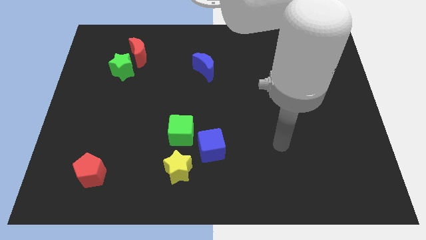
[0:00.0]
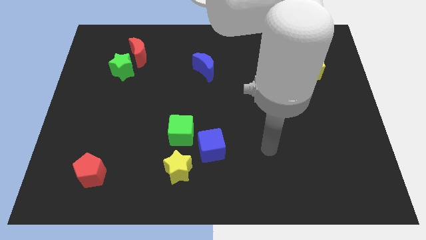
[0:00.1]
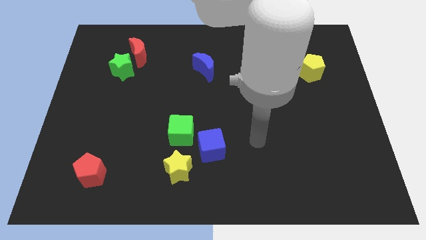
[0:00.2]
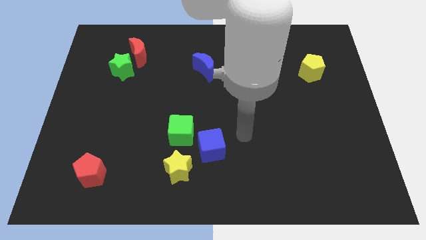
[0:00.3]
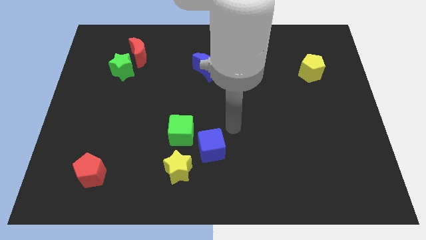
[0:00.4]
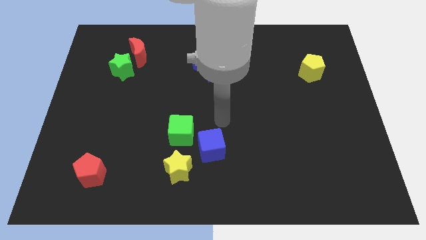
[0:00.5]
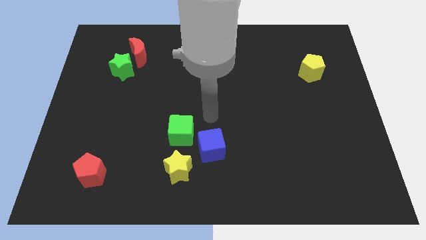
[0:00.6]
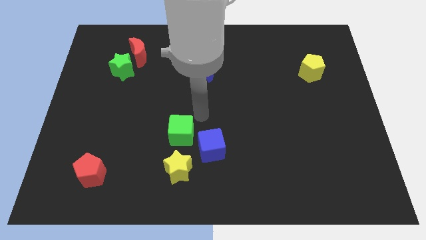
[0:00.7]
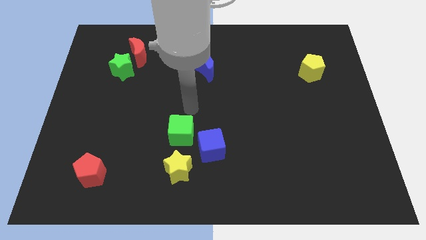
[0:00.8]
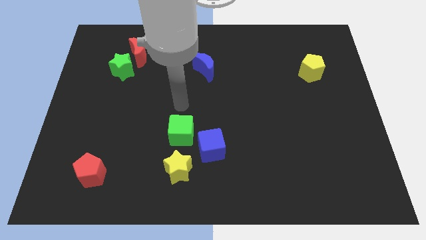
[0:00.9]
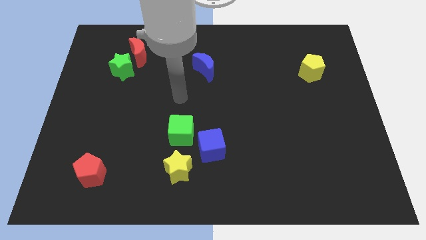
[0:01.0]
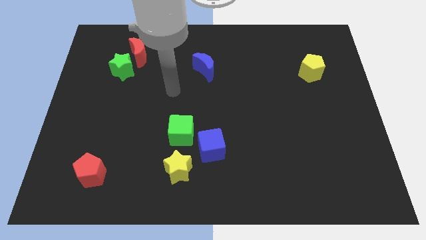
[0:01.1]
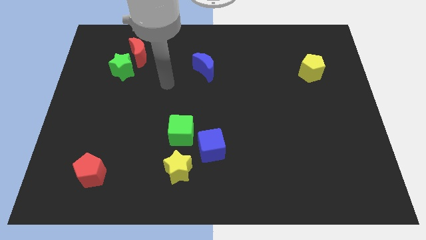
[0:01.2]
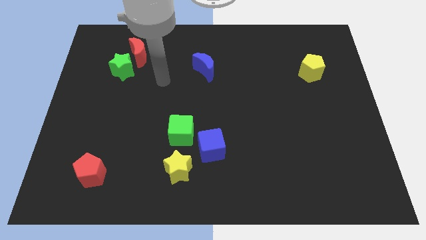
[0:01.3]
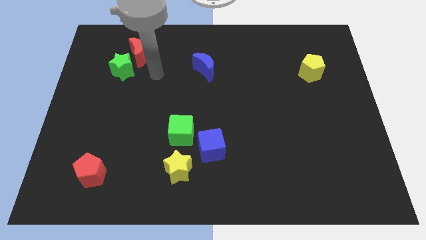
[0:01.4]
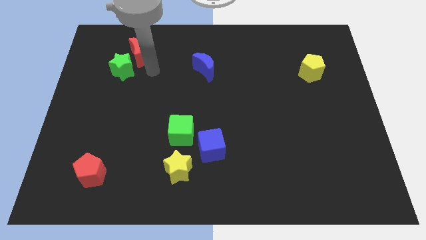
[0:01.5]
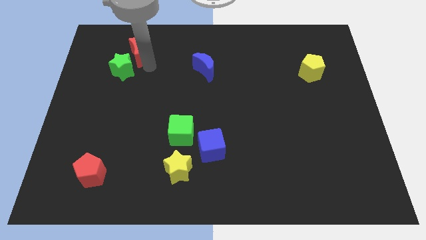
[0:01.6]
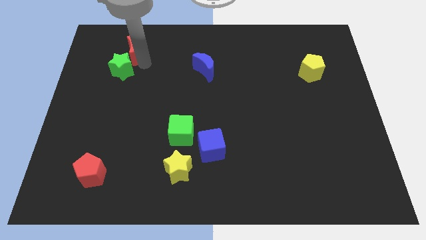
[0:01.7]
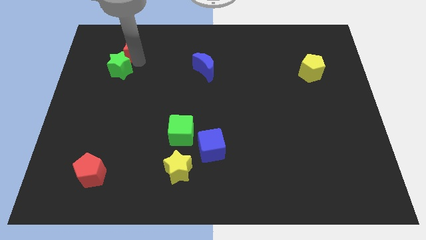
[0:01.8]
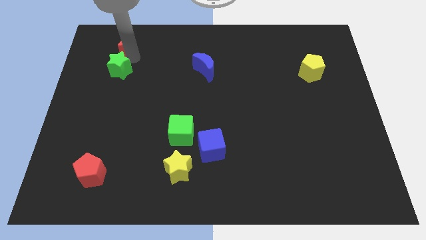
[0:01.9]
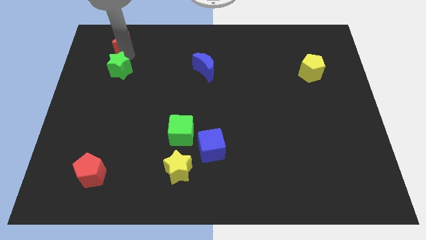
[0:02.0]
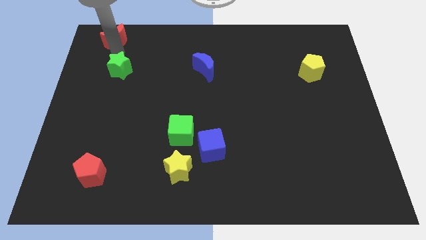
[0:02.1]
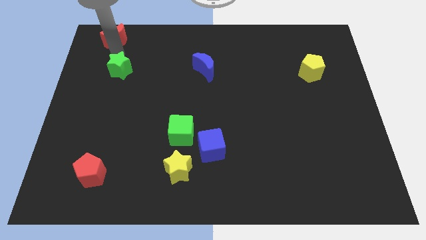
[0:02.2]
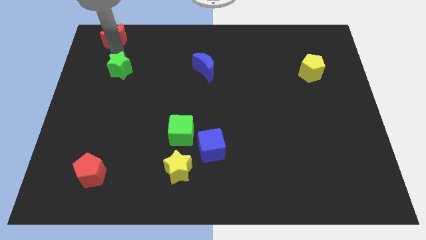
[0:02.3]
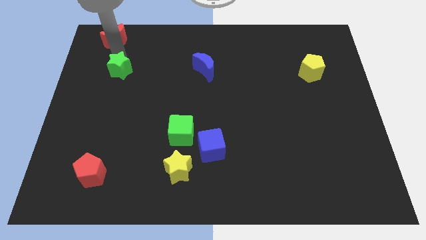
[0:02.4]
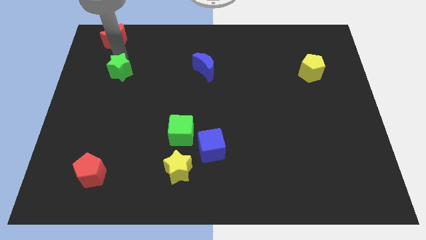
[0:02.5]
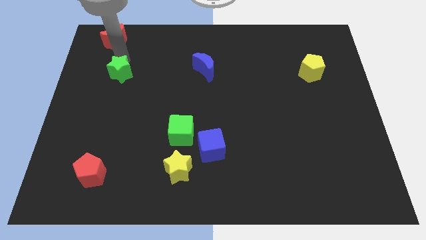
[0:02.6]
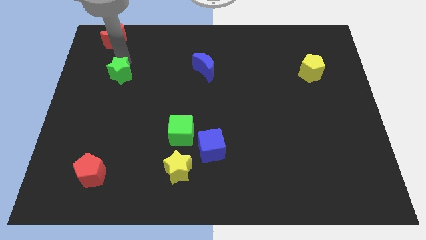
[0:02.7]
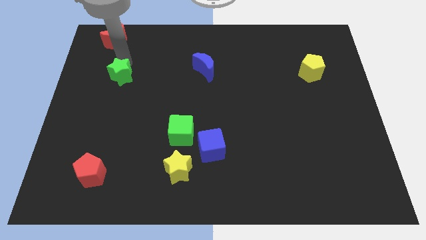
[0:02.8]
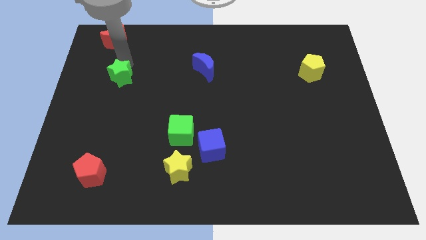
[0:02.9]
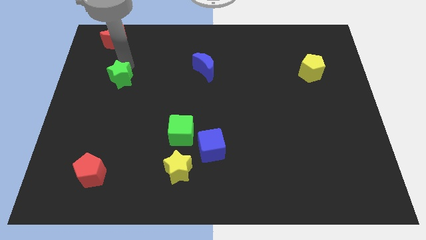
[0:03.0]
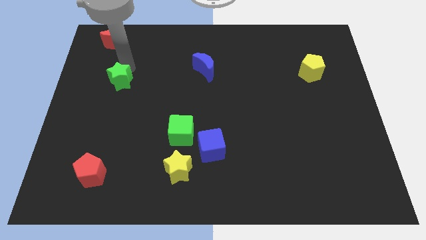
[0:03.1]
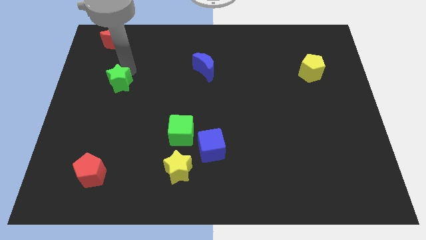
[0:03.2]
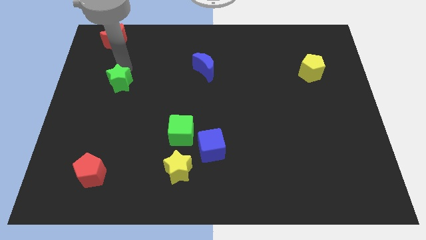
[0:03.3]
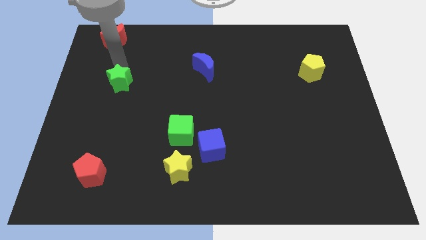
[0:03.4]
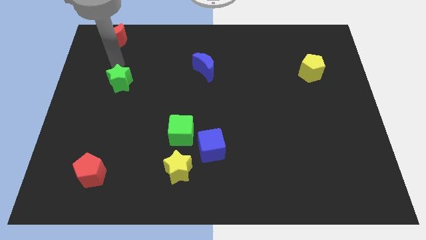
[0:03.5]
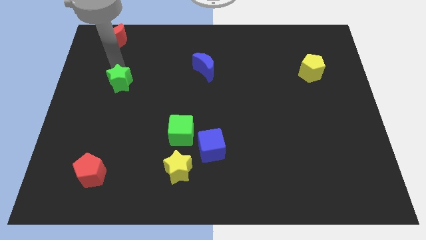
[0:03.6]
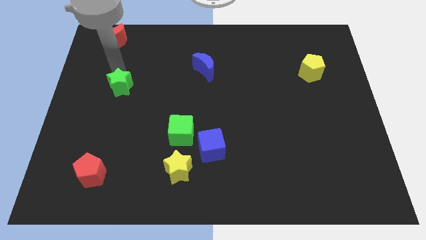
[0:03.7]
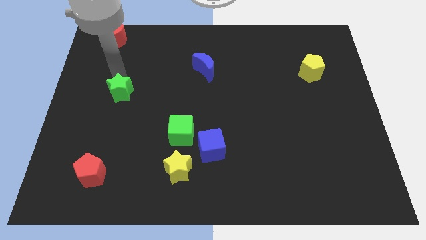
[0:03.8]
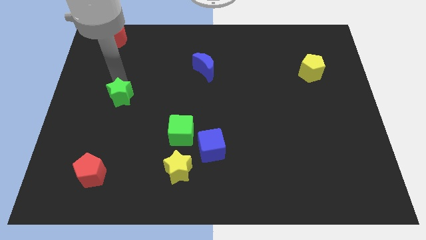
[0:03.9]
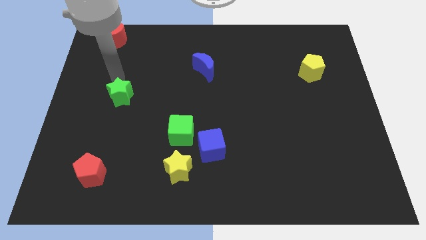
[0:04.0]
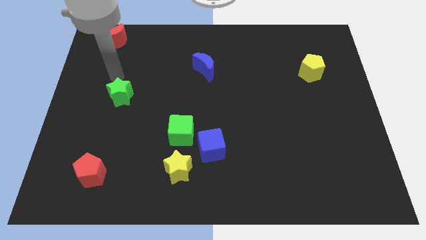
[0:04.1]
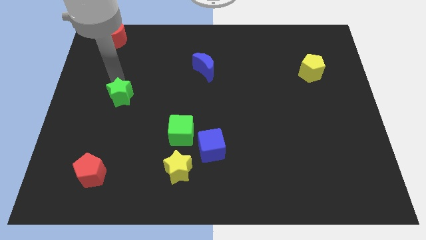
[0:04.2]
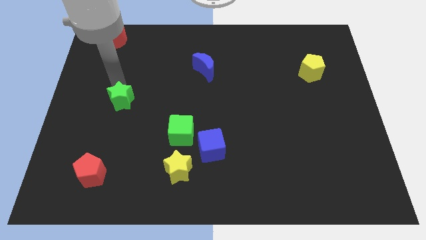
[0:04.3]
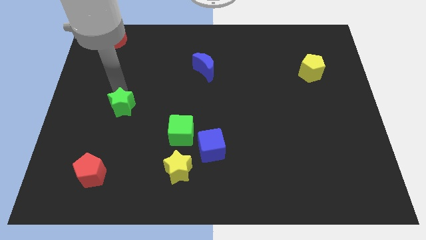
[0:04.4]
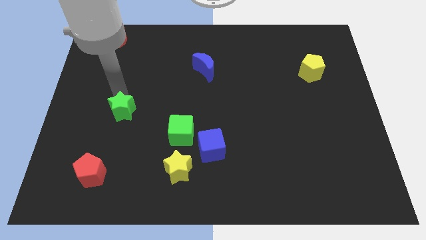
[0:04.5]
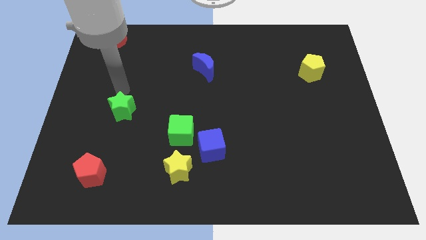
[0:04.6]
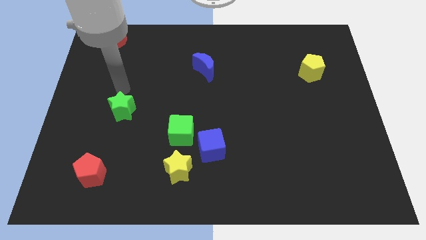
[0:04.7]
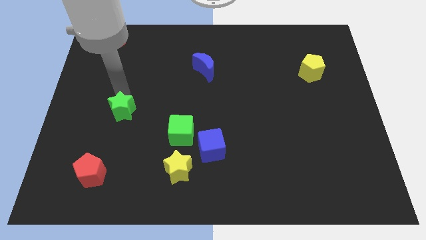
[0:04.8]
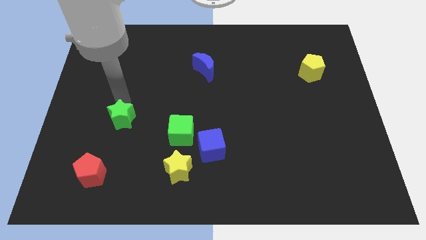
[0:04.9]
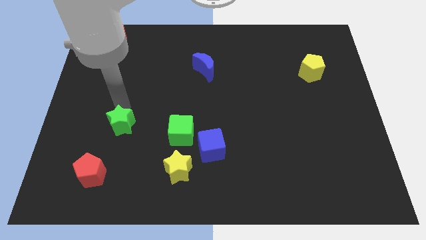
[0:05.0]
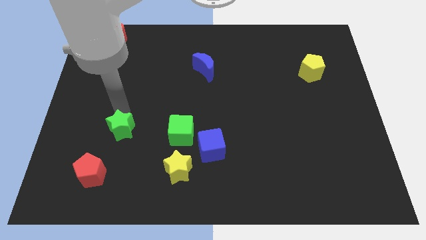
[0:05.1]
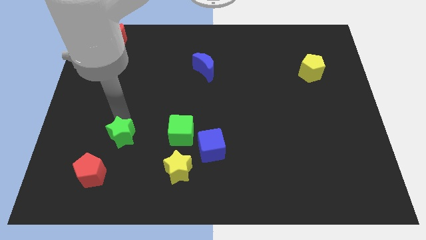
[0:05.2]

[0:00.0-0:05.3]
slide the green star diagonally up and to the right of the red pentagon

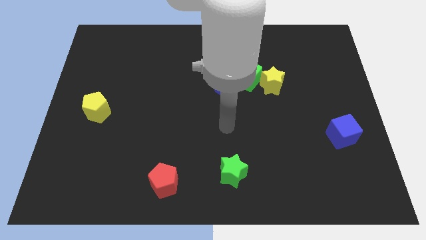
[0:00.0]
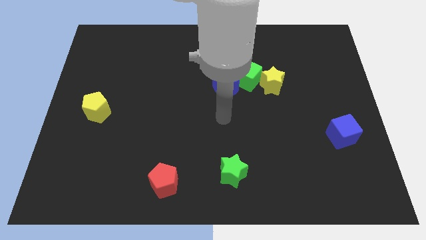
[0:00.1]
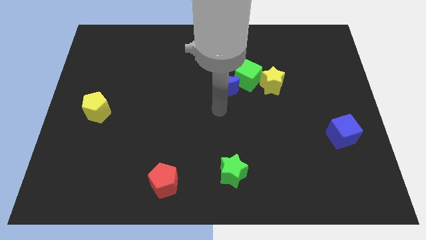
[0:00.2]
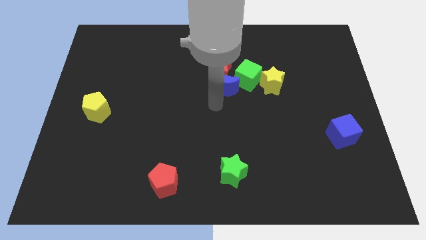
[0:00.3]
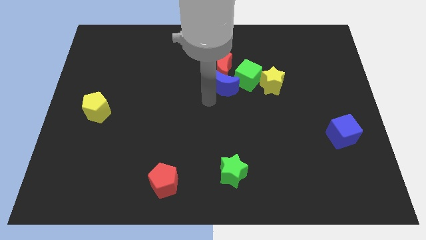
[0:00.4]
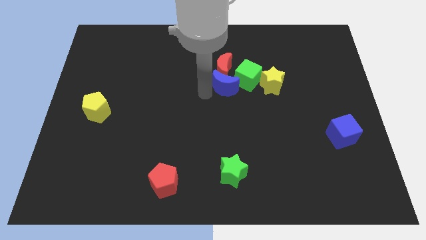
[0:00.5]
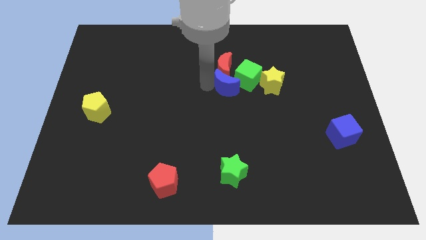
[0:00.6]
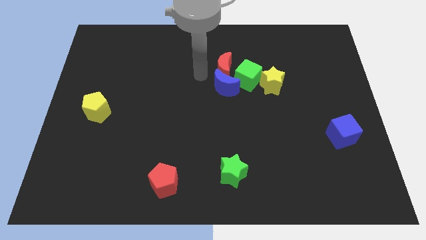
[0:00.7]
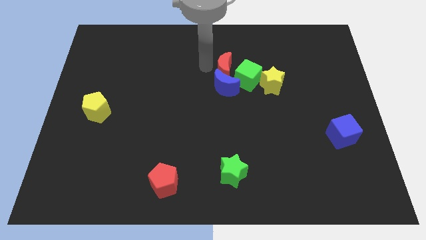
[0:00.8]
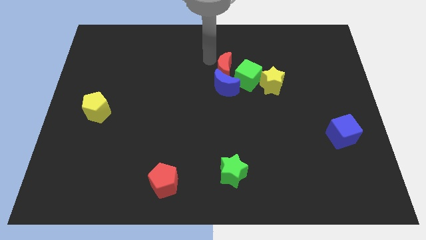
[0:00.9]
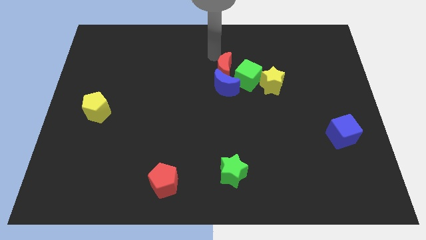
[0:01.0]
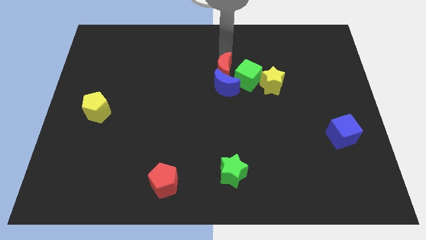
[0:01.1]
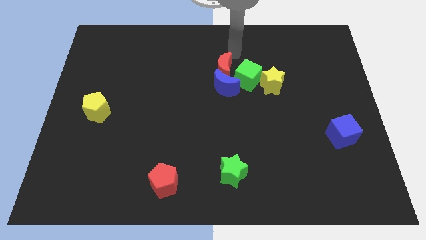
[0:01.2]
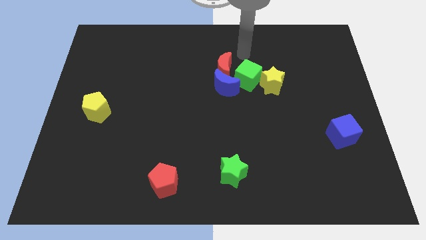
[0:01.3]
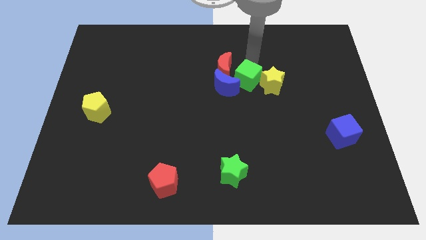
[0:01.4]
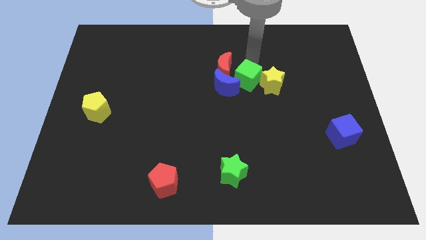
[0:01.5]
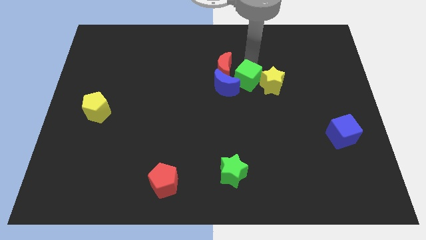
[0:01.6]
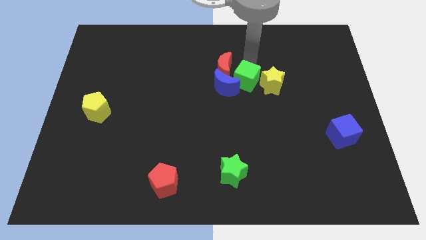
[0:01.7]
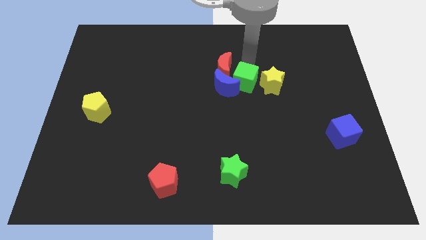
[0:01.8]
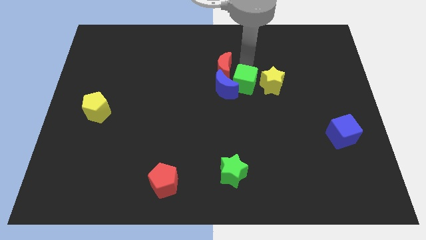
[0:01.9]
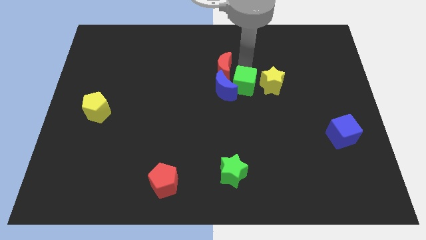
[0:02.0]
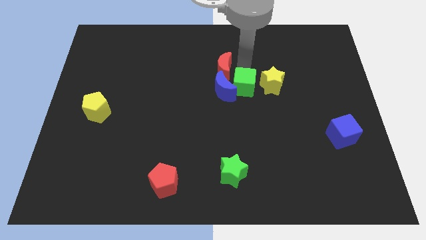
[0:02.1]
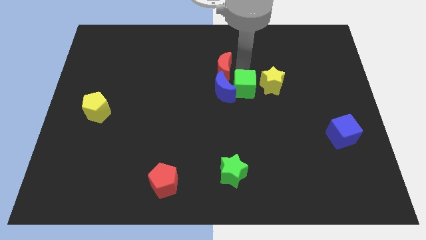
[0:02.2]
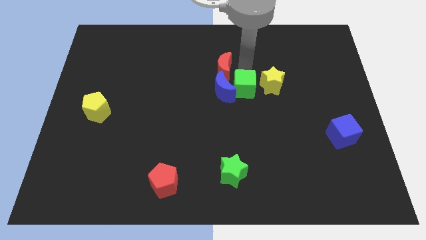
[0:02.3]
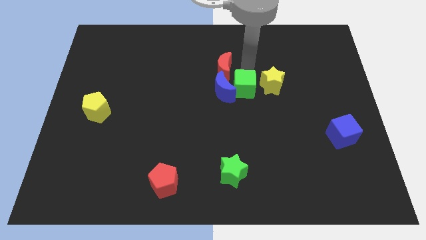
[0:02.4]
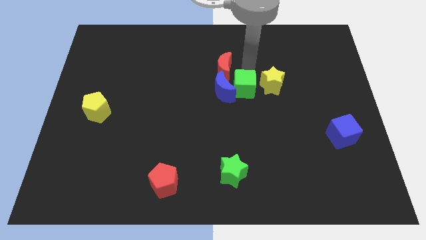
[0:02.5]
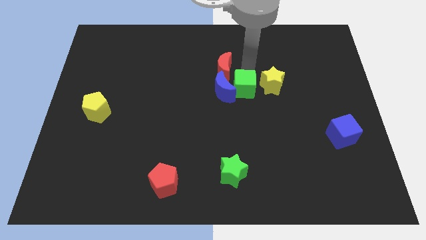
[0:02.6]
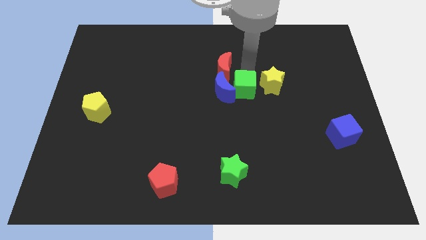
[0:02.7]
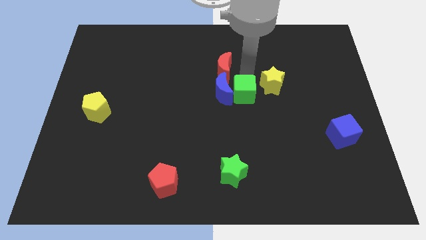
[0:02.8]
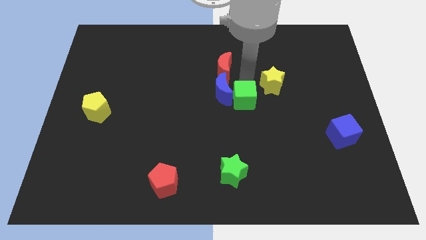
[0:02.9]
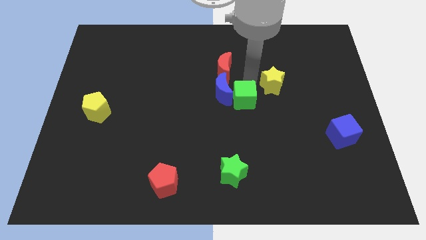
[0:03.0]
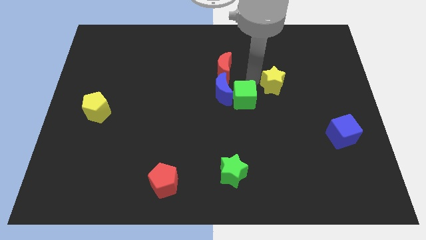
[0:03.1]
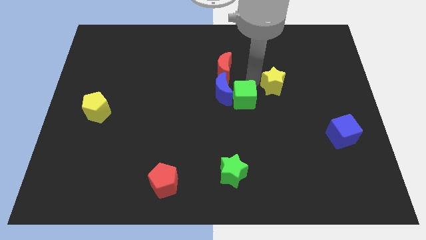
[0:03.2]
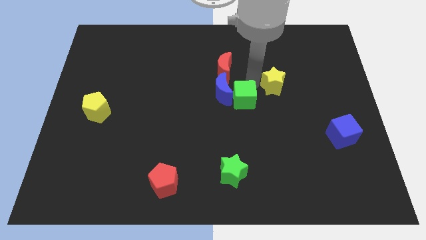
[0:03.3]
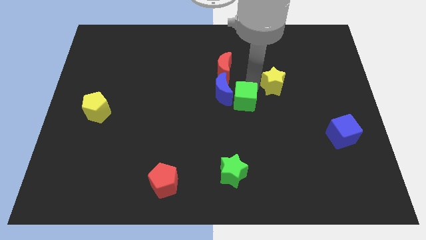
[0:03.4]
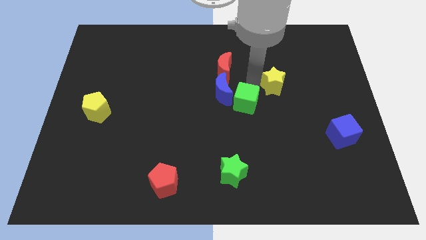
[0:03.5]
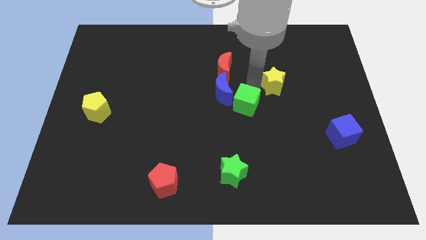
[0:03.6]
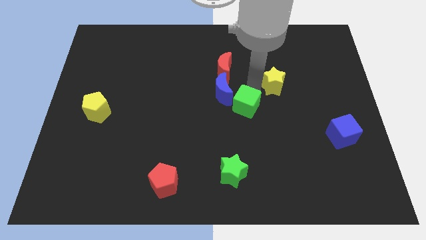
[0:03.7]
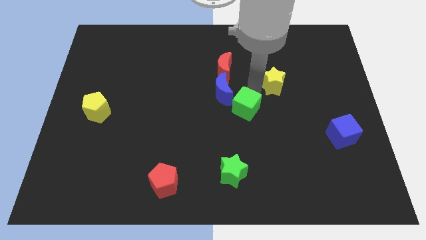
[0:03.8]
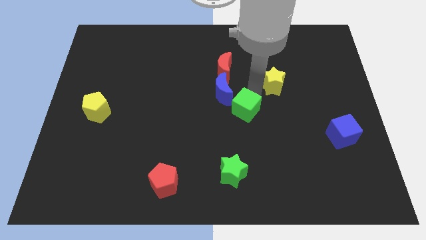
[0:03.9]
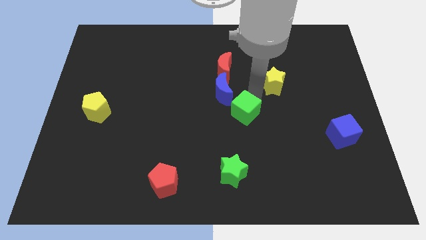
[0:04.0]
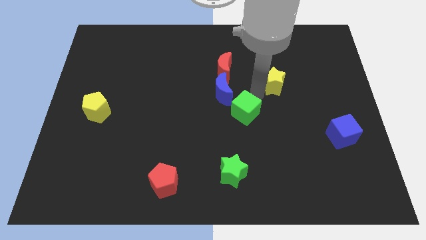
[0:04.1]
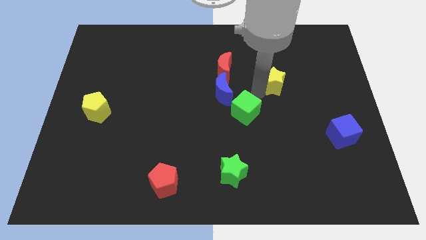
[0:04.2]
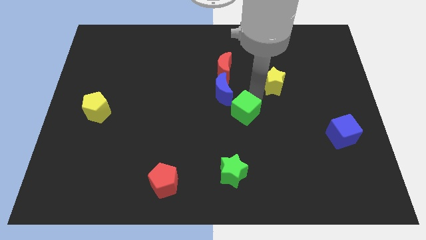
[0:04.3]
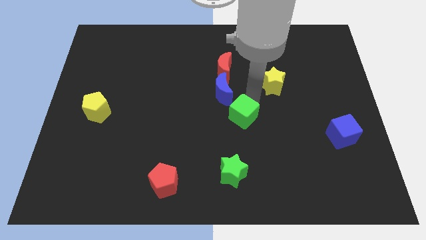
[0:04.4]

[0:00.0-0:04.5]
push the green cube above the green star
